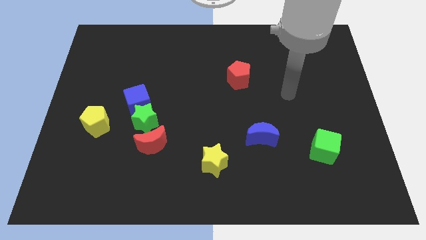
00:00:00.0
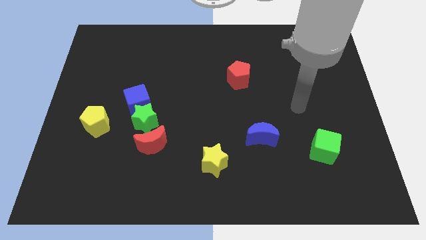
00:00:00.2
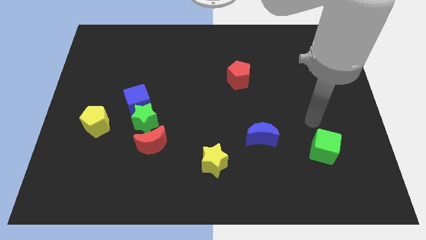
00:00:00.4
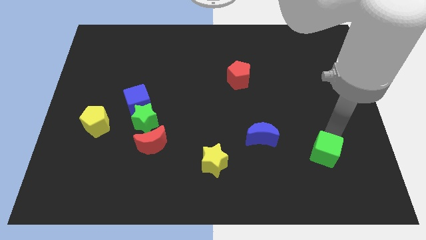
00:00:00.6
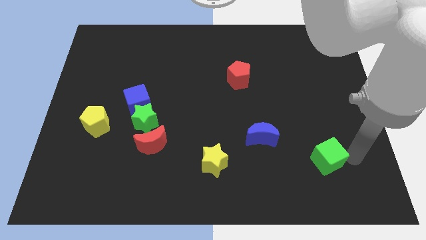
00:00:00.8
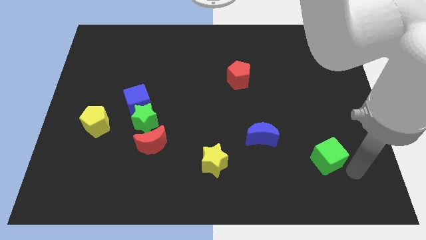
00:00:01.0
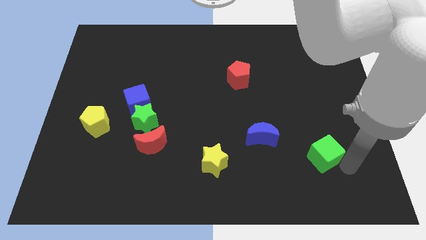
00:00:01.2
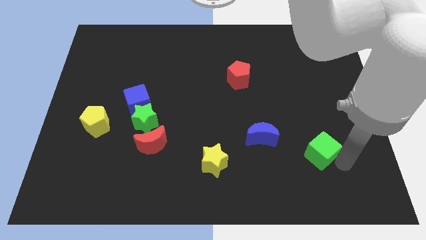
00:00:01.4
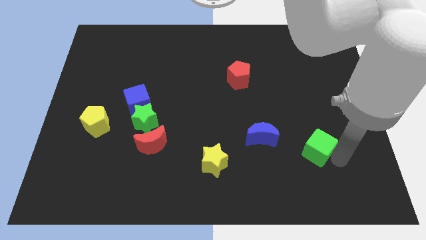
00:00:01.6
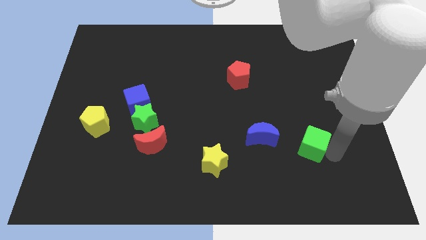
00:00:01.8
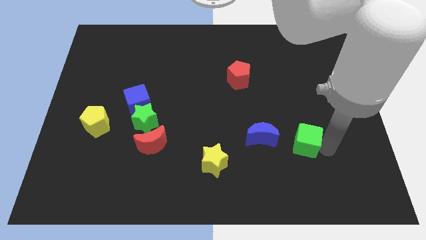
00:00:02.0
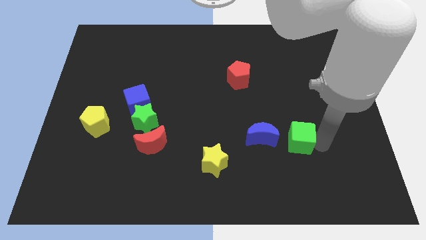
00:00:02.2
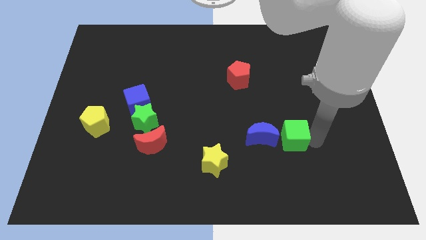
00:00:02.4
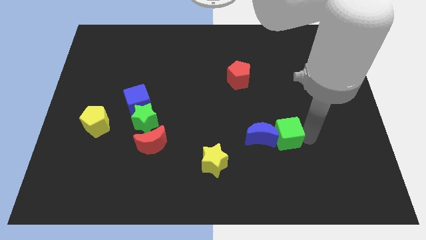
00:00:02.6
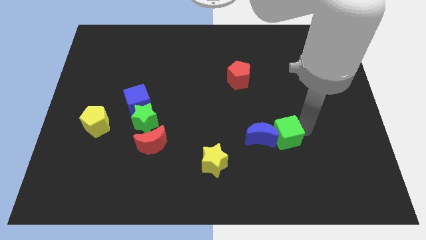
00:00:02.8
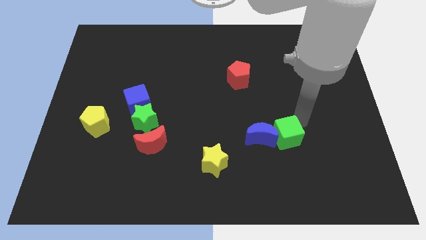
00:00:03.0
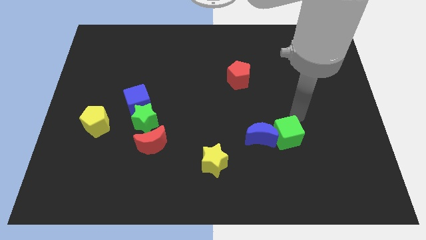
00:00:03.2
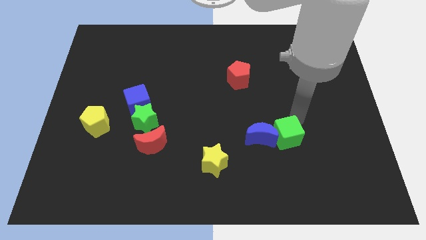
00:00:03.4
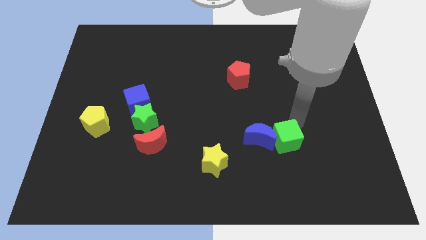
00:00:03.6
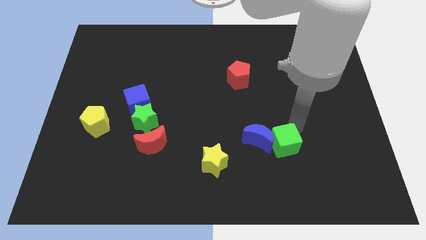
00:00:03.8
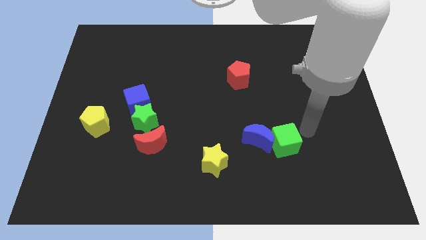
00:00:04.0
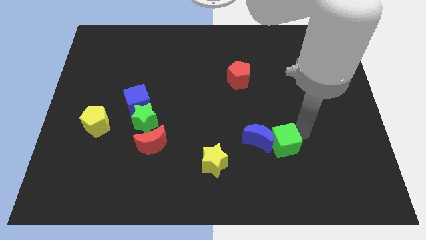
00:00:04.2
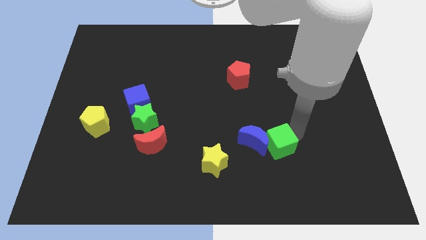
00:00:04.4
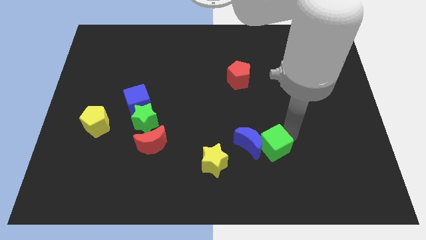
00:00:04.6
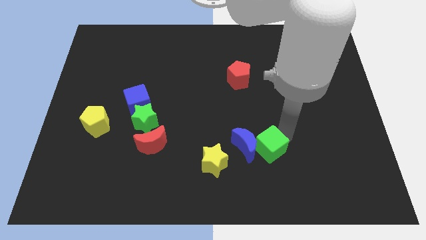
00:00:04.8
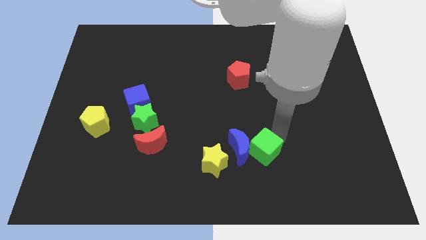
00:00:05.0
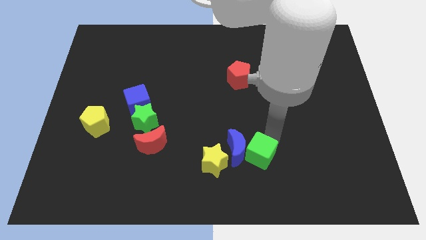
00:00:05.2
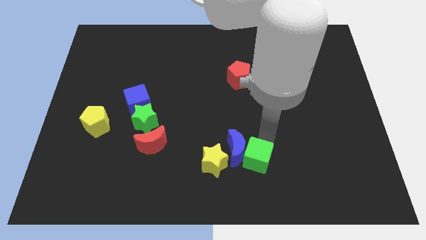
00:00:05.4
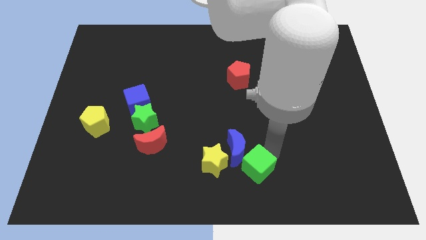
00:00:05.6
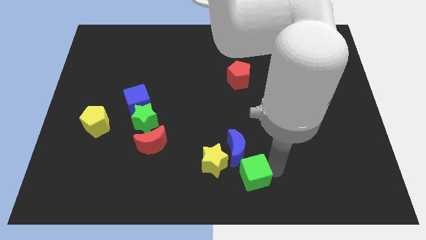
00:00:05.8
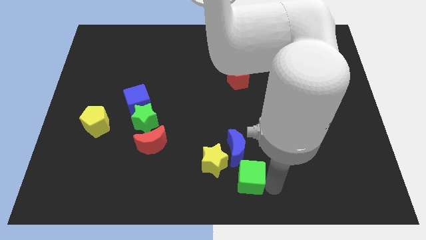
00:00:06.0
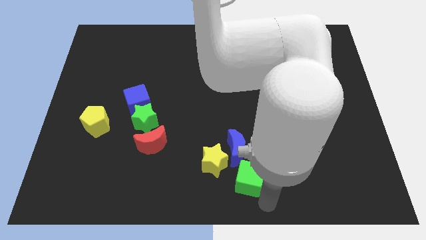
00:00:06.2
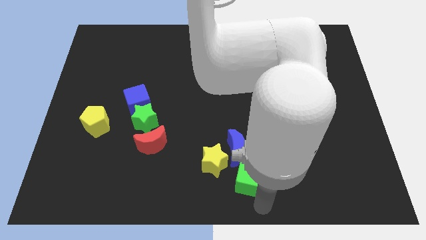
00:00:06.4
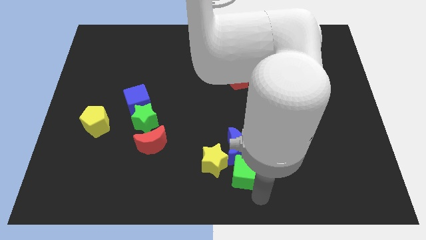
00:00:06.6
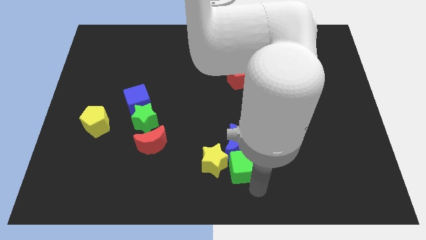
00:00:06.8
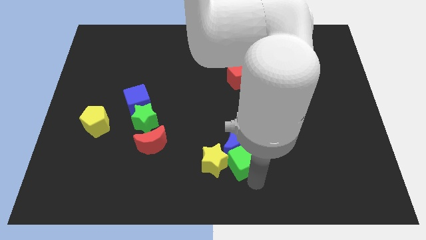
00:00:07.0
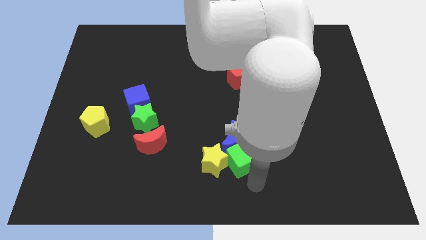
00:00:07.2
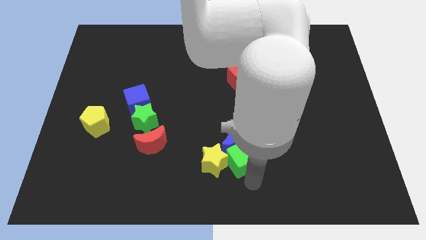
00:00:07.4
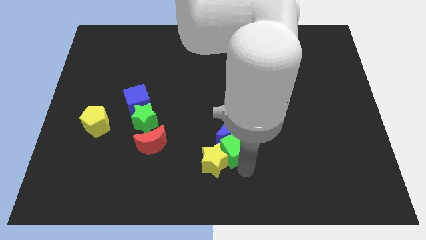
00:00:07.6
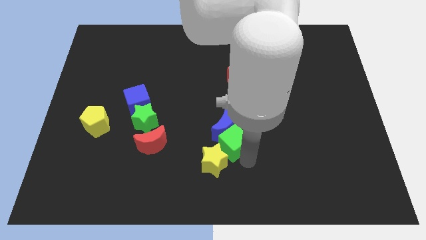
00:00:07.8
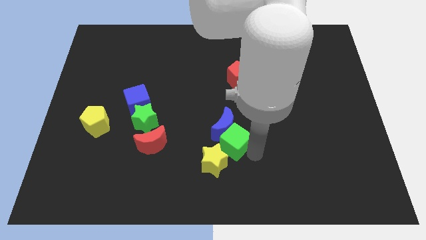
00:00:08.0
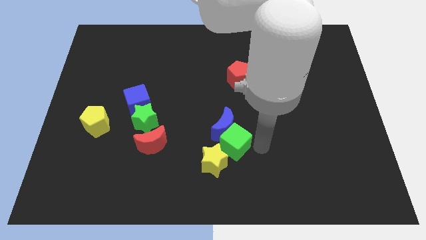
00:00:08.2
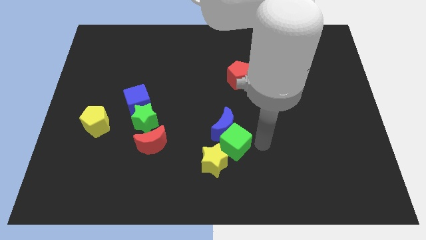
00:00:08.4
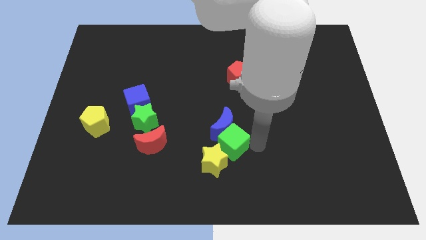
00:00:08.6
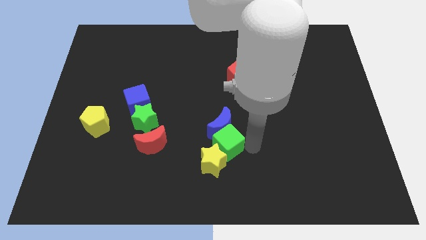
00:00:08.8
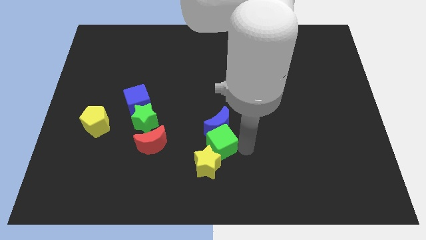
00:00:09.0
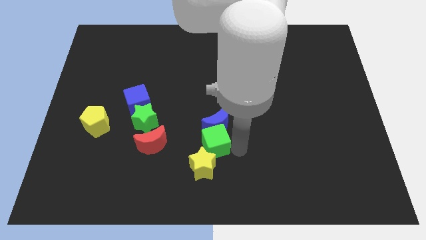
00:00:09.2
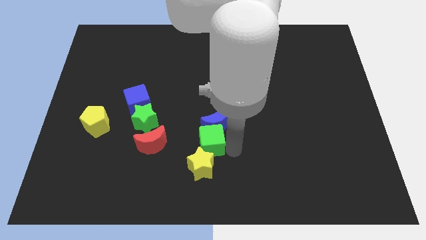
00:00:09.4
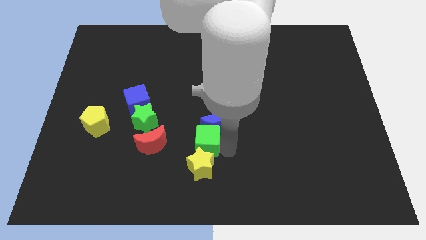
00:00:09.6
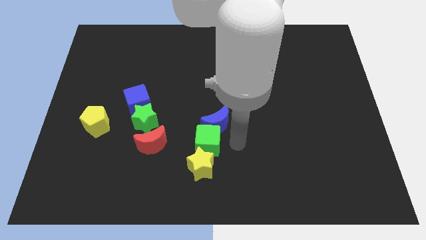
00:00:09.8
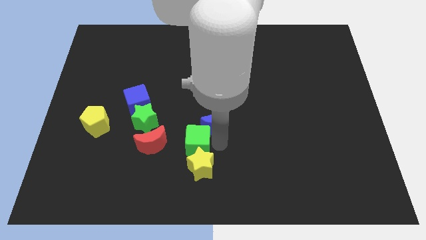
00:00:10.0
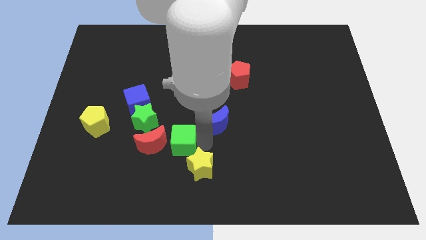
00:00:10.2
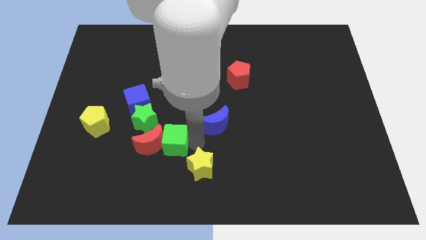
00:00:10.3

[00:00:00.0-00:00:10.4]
move the green cube to the red moon

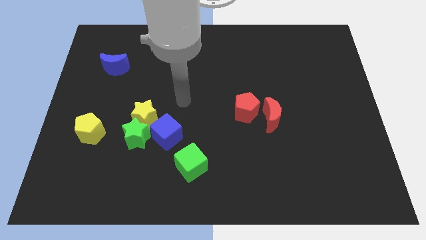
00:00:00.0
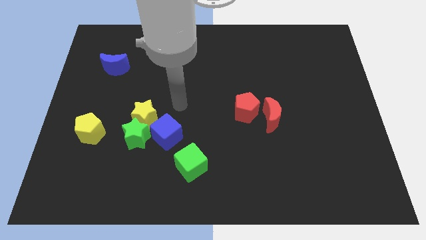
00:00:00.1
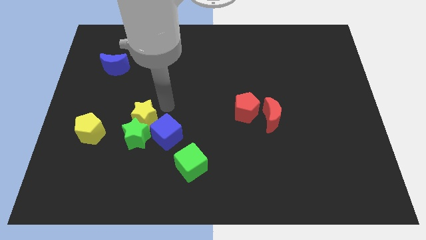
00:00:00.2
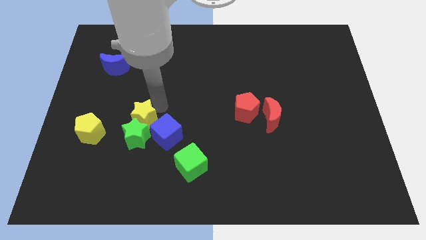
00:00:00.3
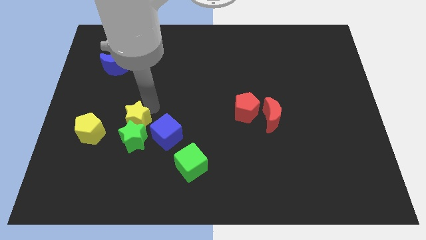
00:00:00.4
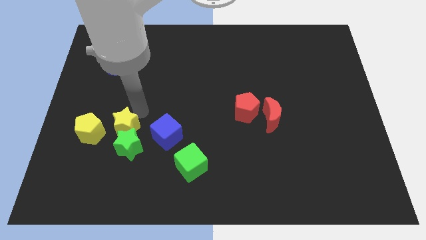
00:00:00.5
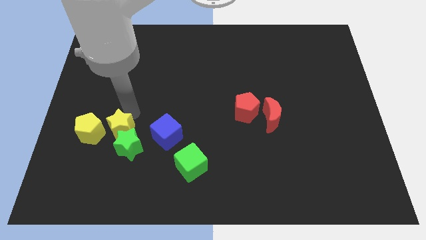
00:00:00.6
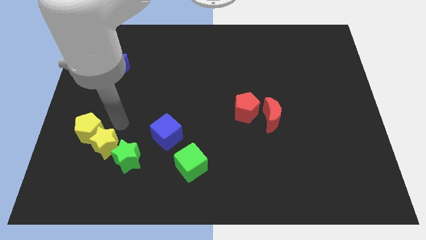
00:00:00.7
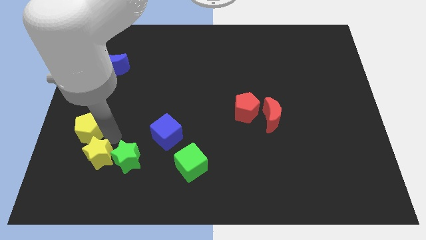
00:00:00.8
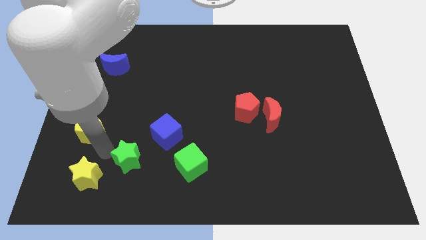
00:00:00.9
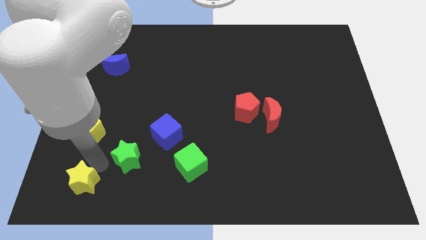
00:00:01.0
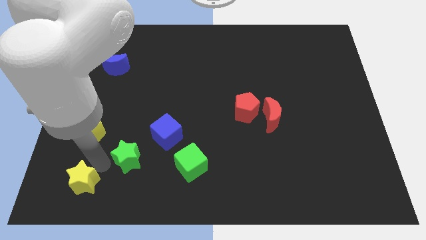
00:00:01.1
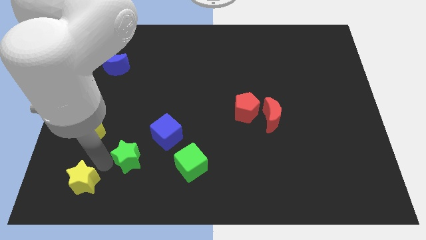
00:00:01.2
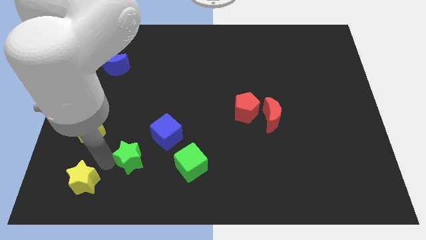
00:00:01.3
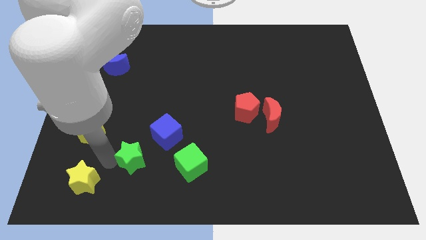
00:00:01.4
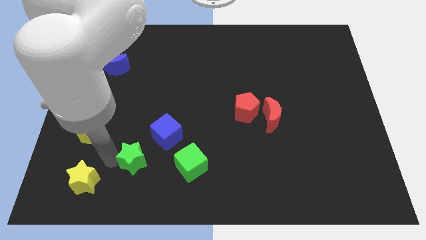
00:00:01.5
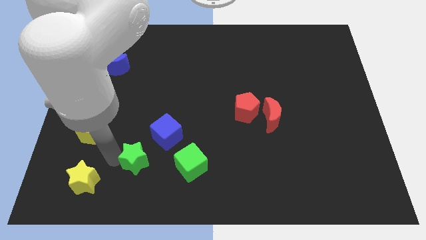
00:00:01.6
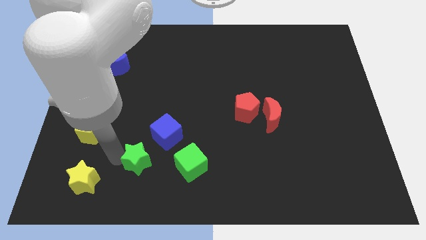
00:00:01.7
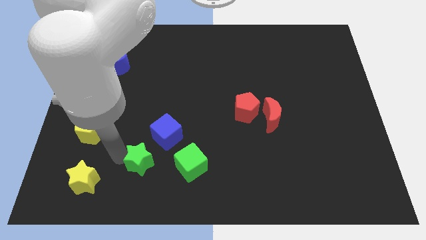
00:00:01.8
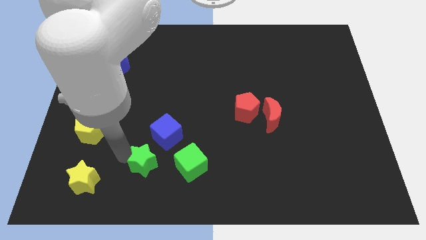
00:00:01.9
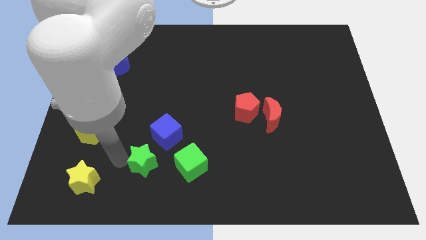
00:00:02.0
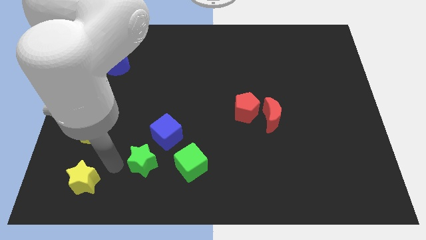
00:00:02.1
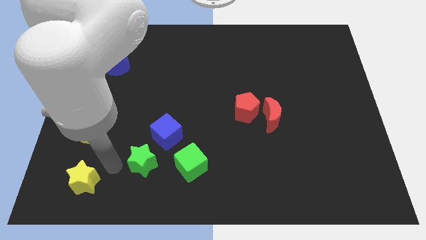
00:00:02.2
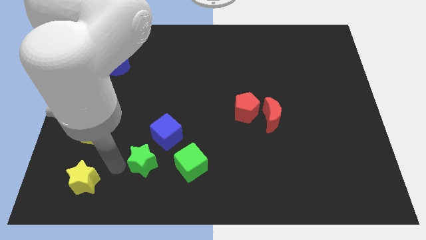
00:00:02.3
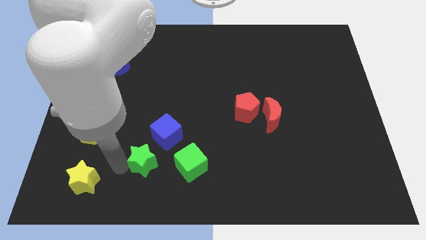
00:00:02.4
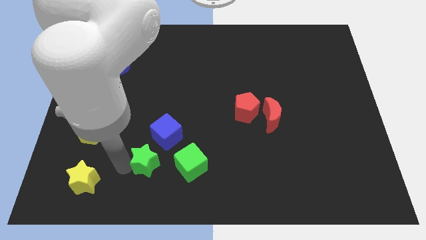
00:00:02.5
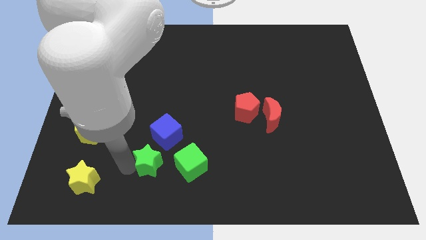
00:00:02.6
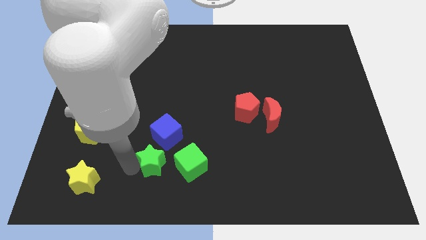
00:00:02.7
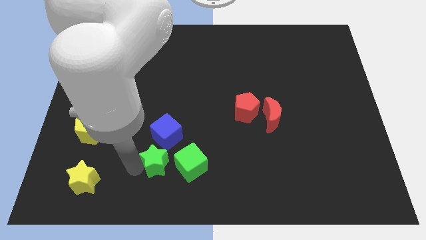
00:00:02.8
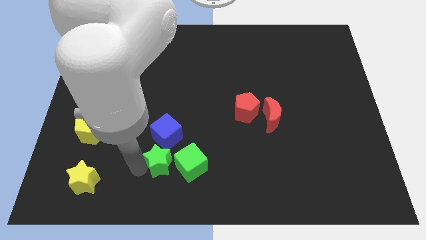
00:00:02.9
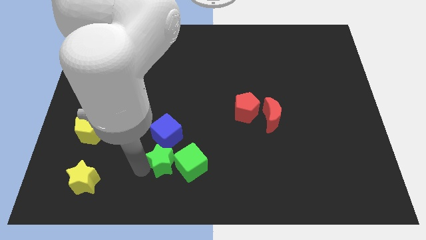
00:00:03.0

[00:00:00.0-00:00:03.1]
put the green star next to the green cube
